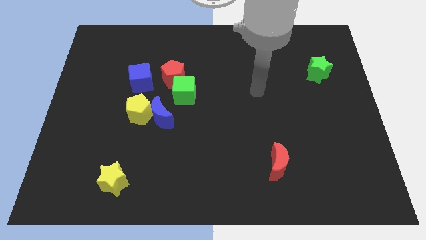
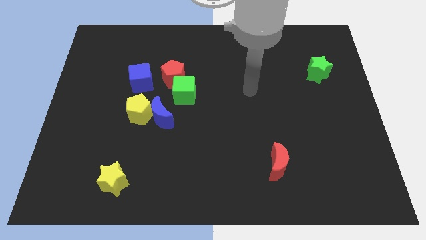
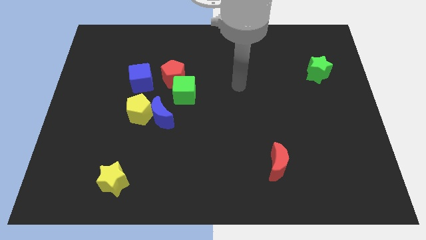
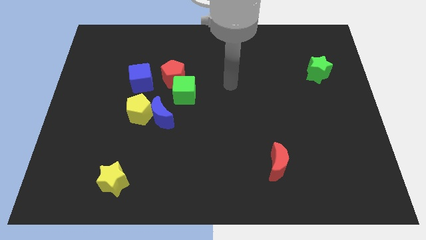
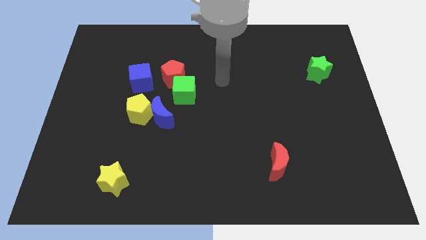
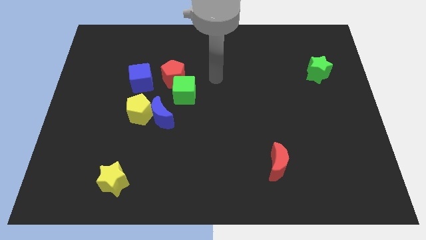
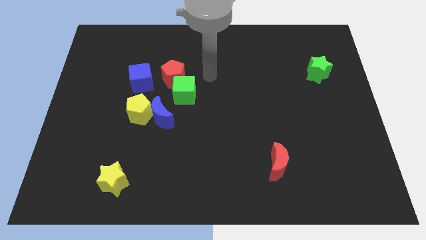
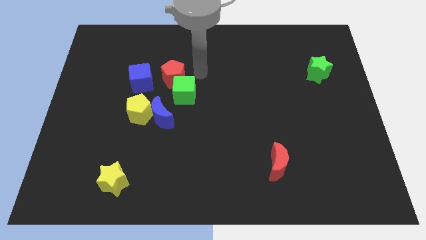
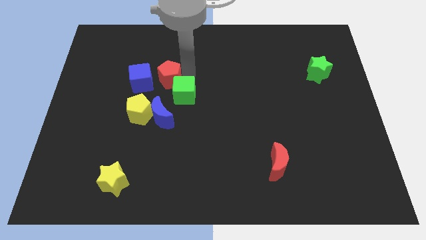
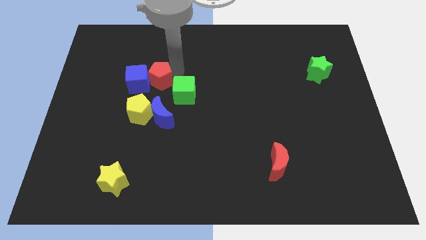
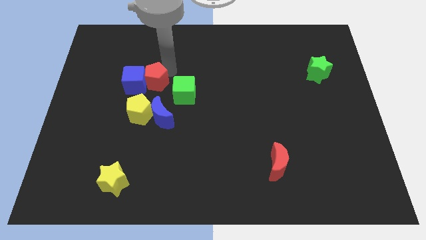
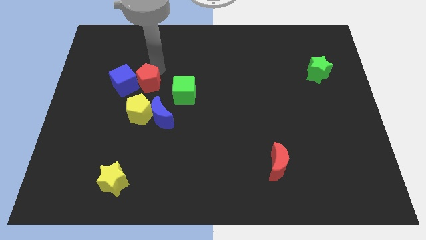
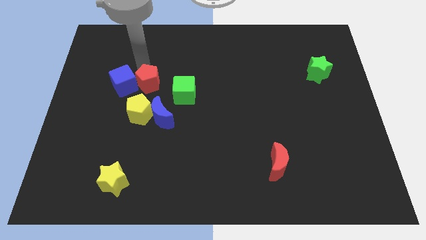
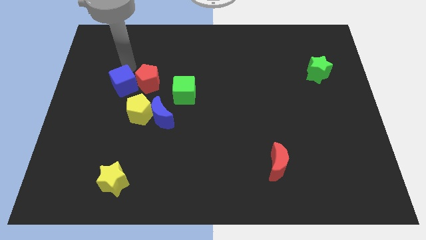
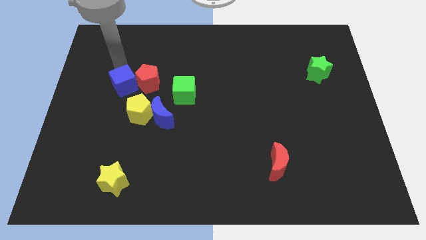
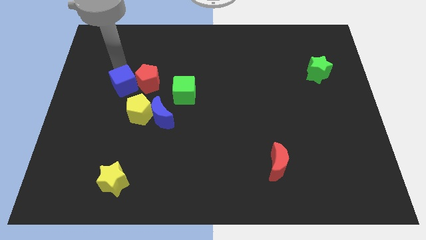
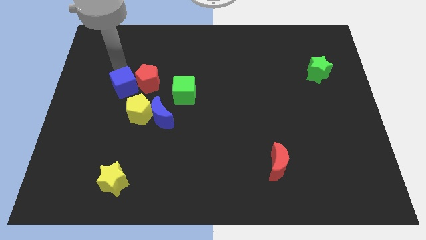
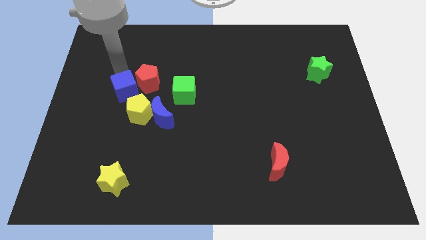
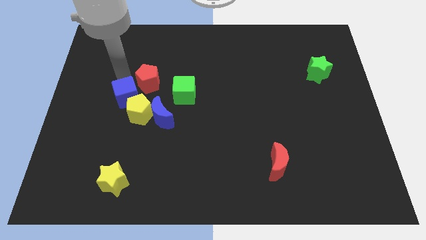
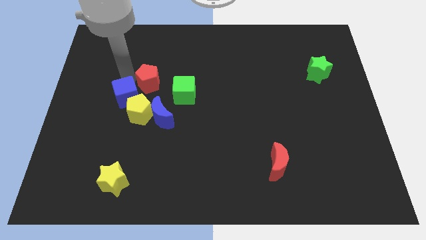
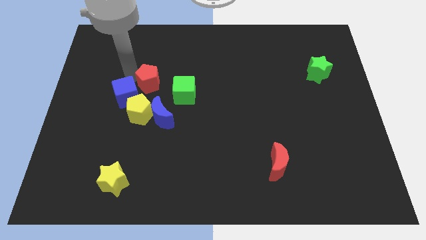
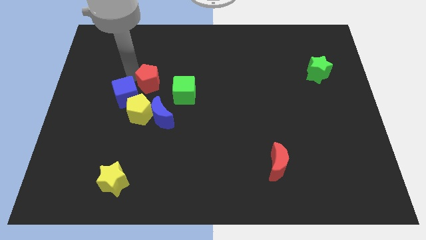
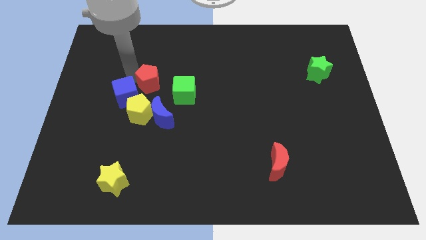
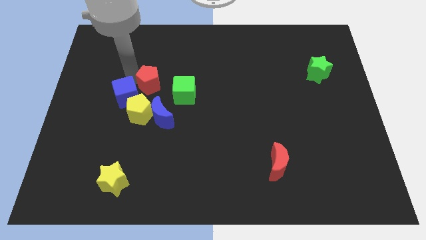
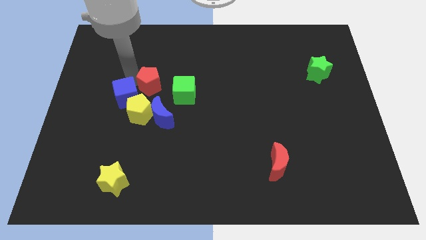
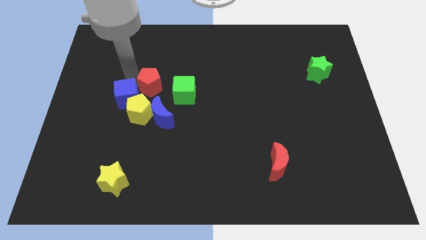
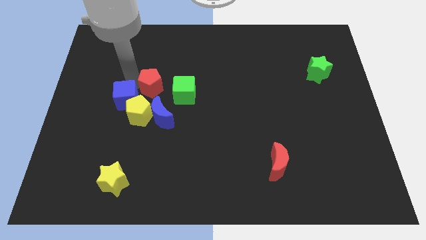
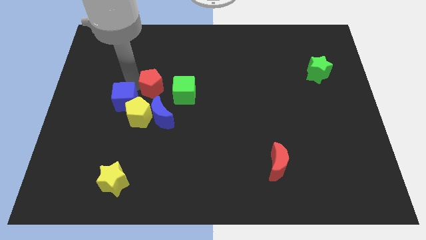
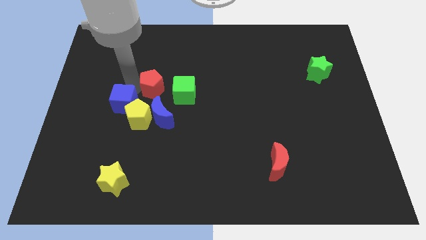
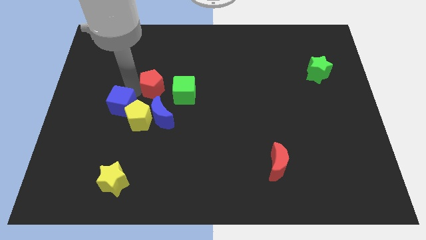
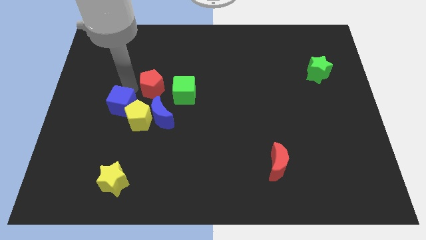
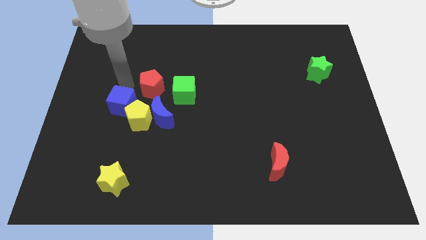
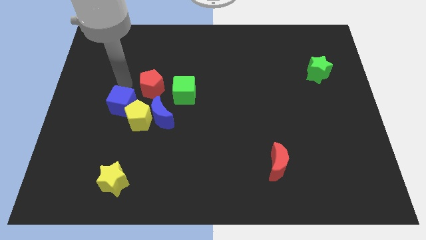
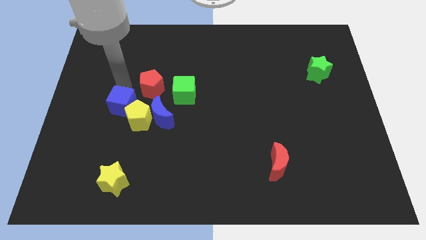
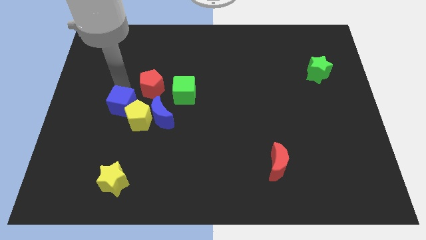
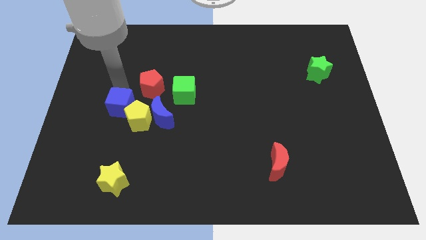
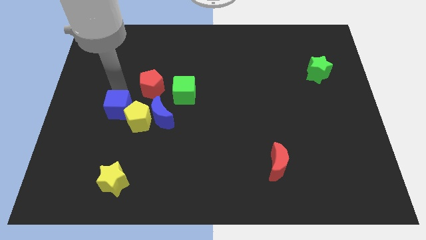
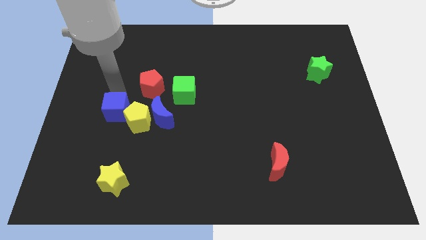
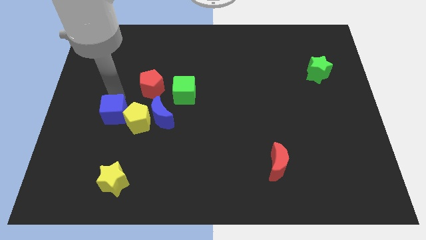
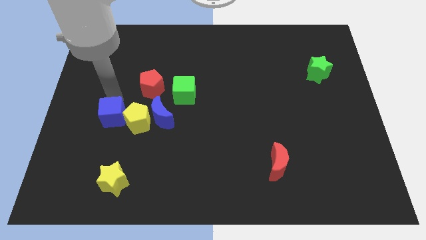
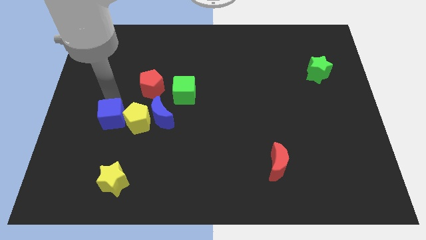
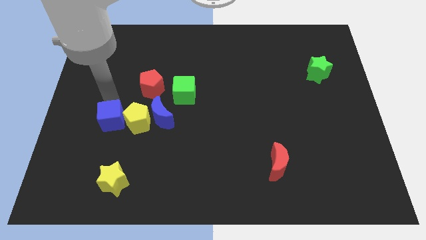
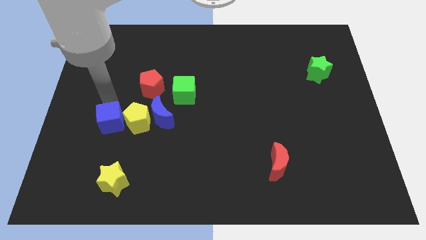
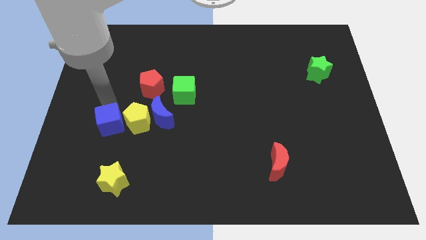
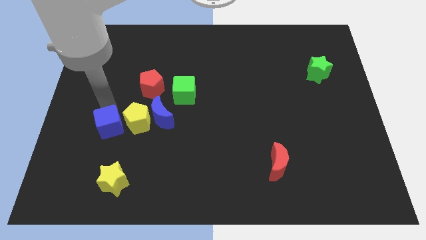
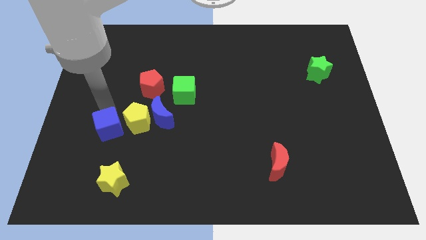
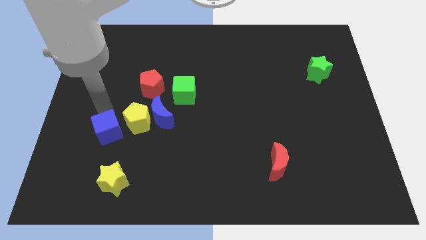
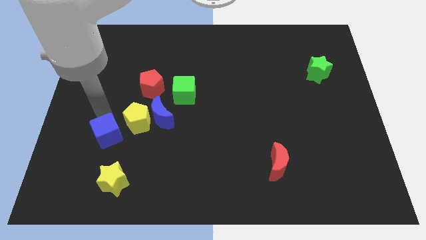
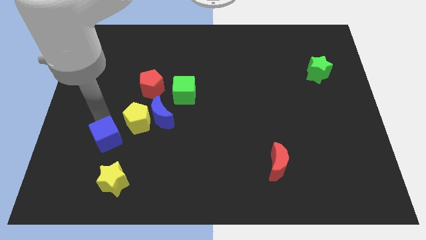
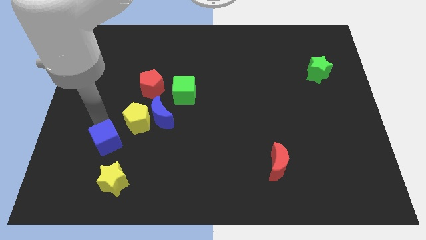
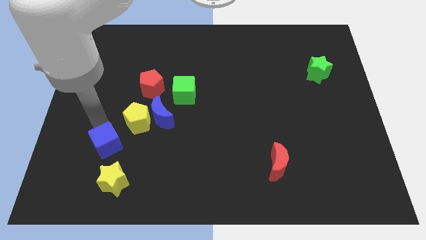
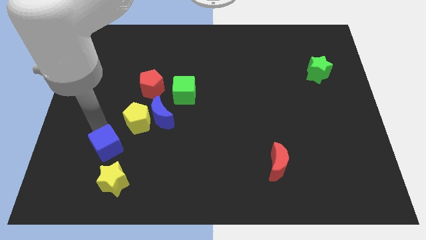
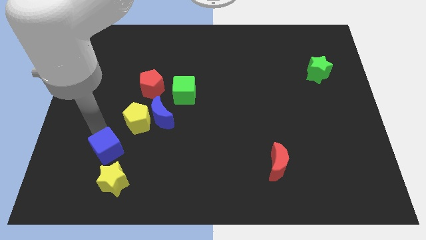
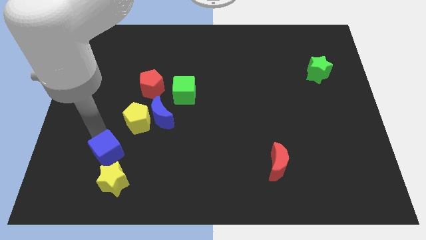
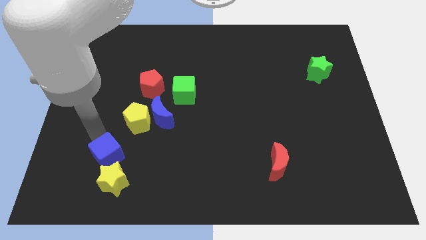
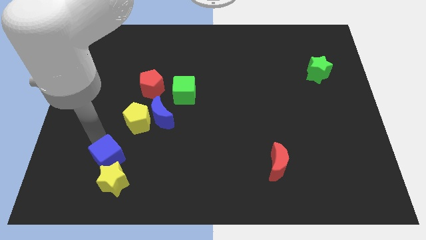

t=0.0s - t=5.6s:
push the blue cube close to the yellow star

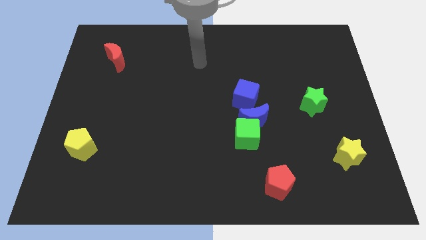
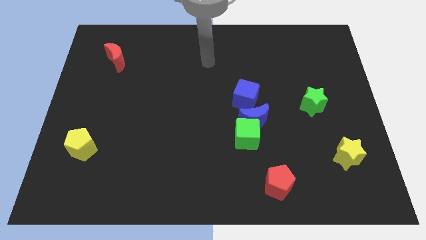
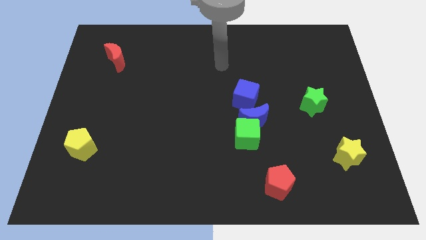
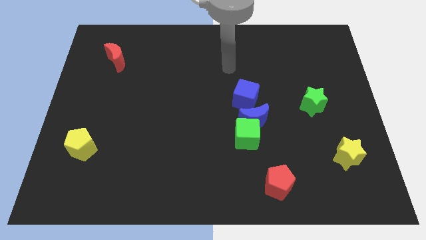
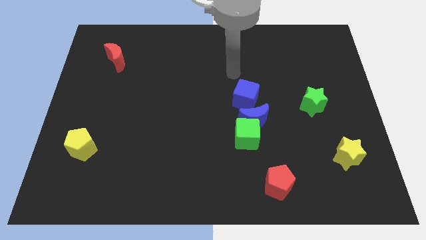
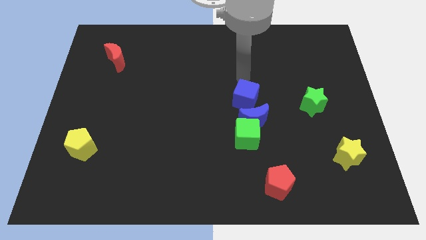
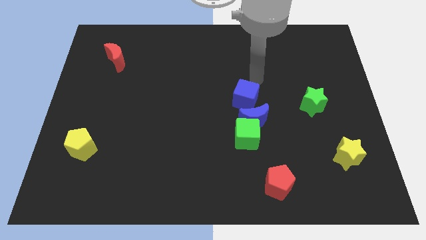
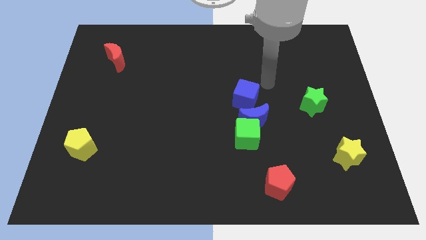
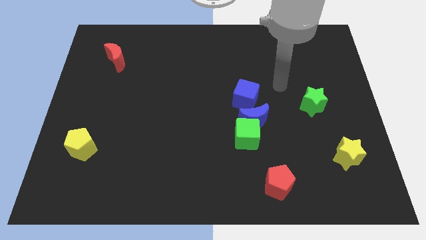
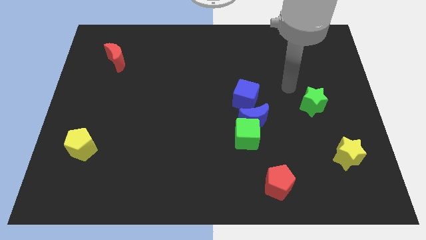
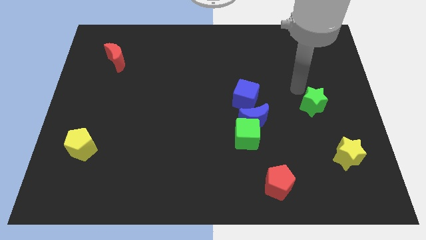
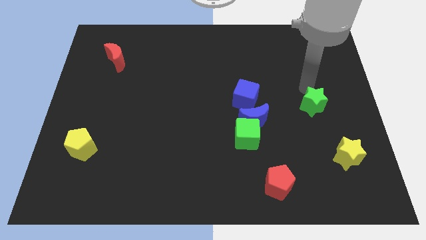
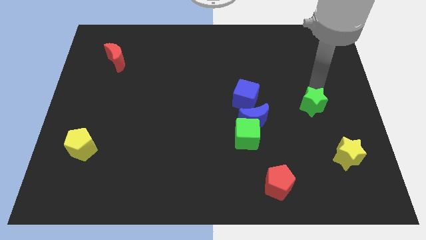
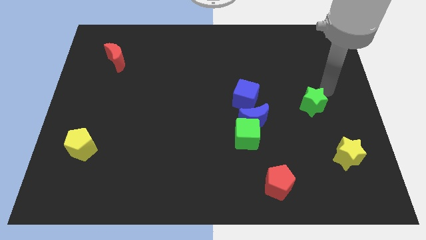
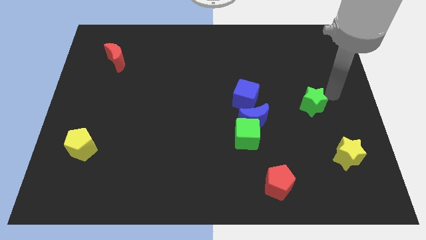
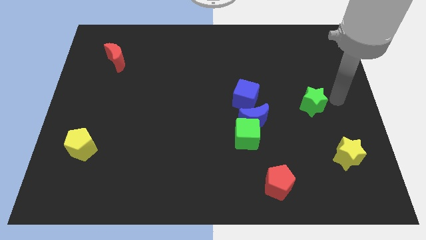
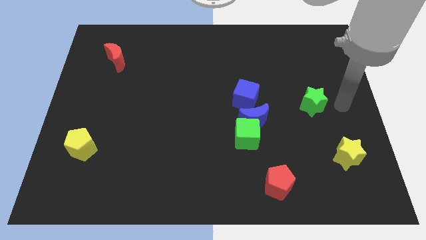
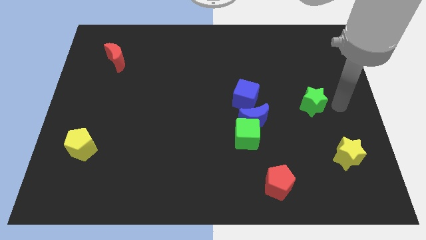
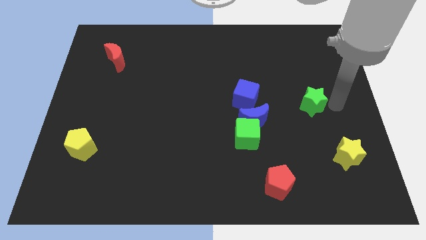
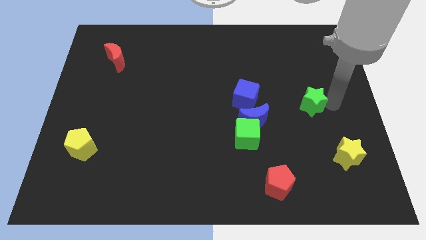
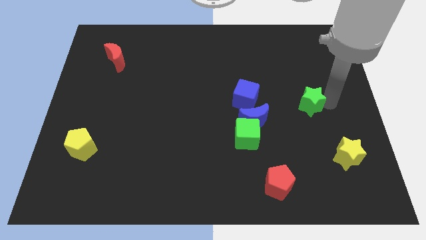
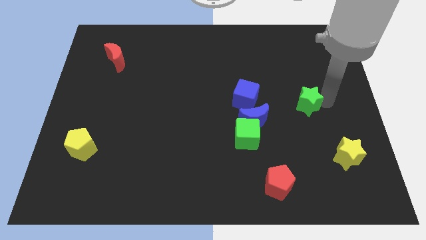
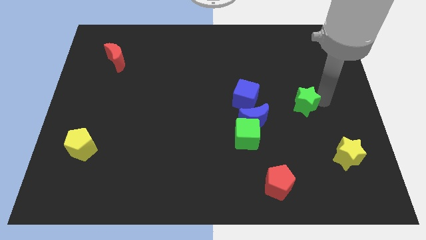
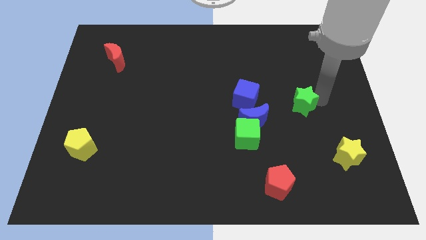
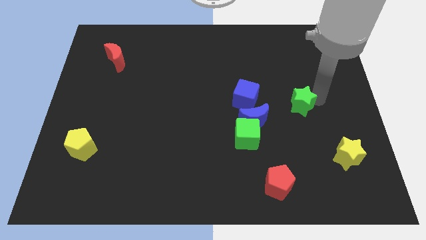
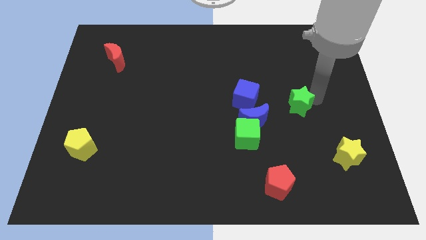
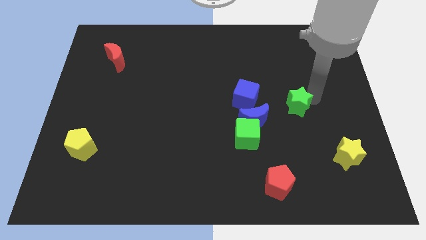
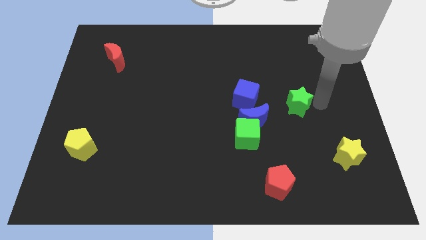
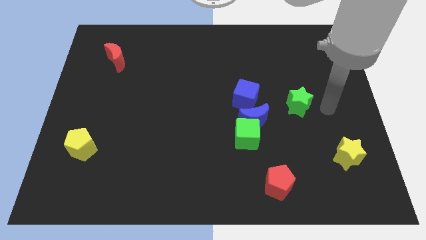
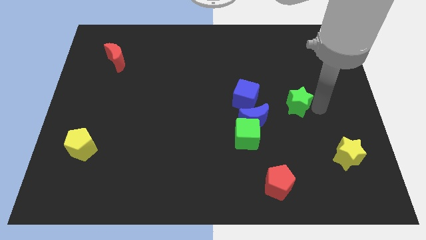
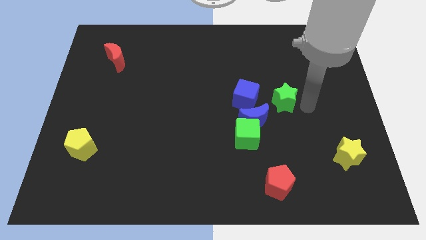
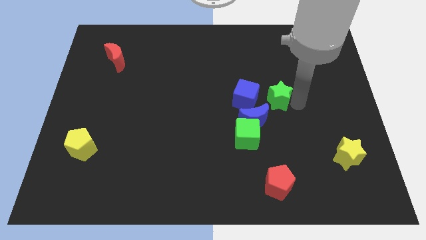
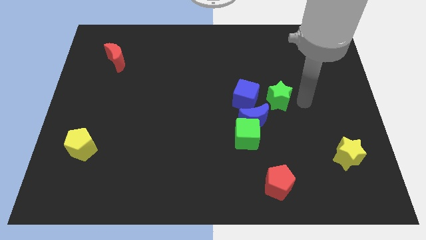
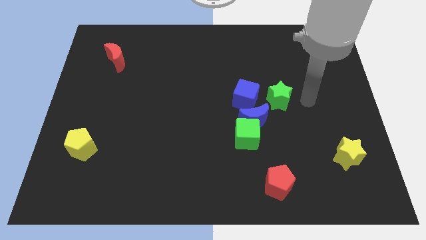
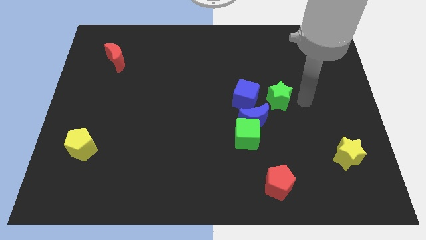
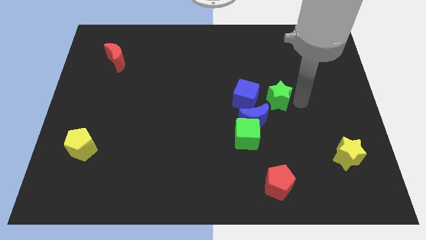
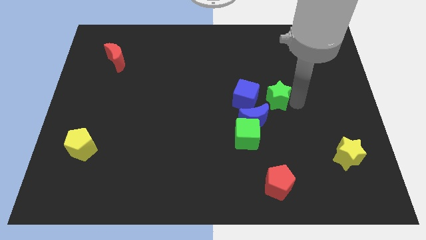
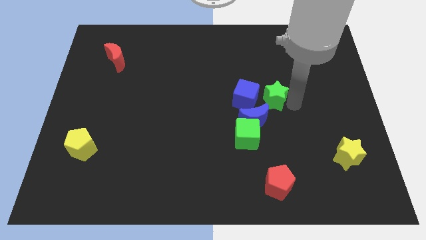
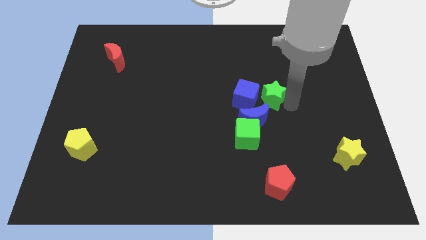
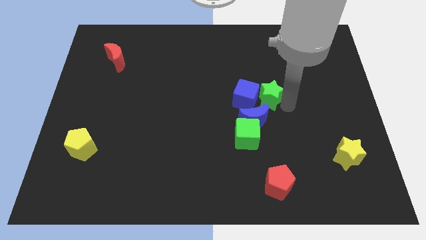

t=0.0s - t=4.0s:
push the green star close to the blue cube
